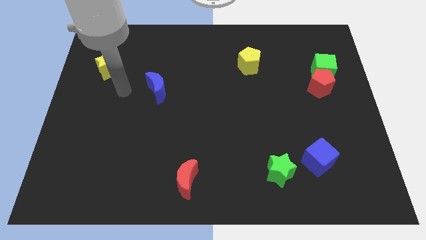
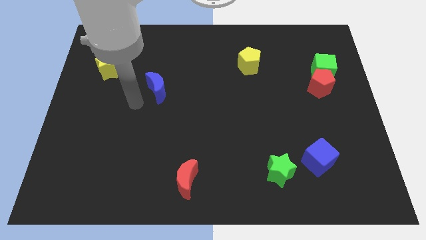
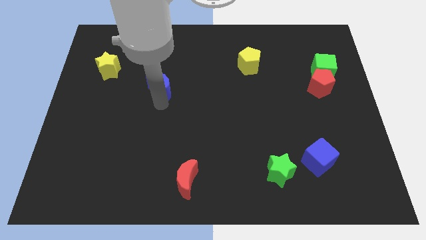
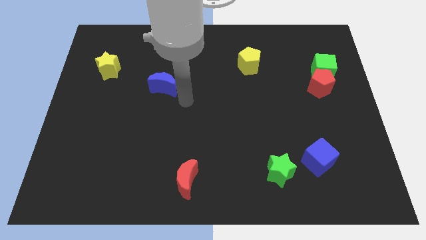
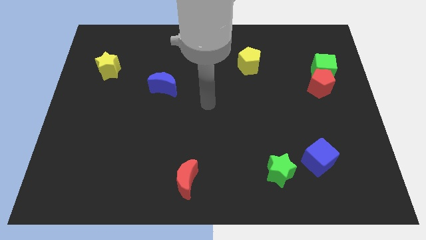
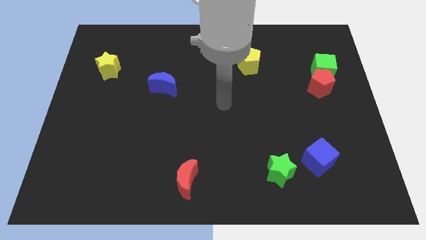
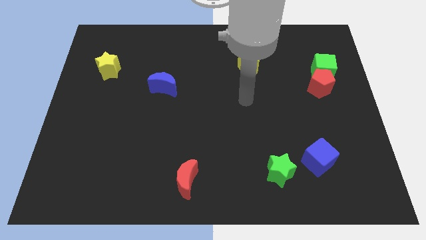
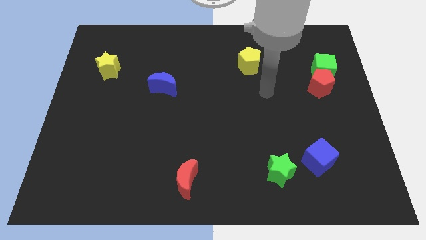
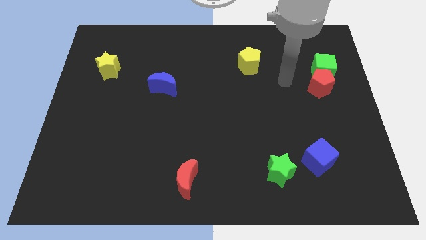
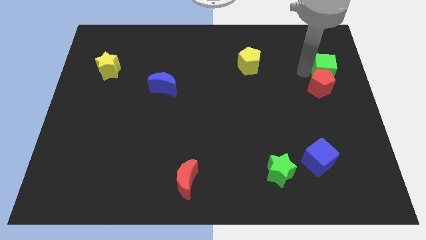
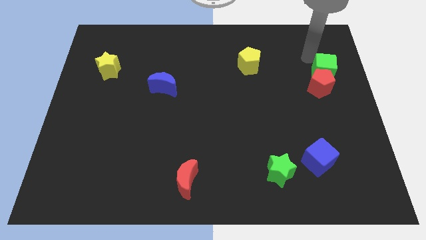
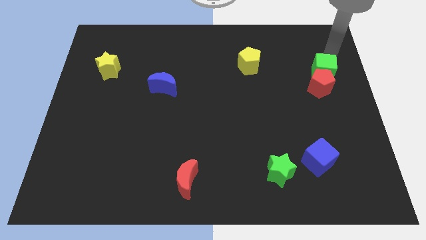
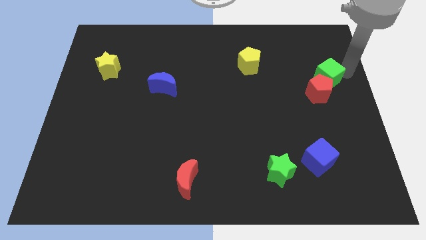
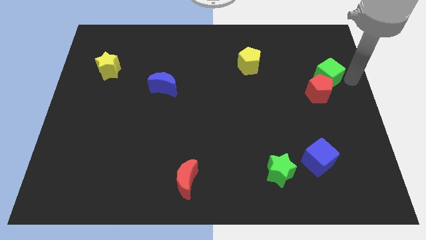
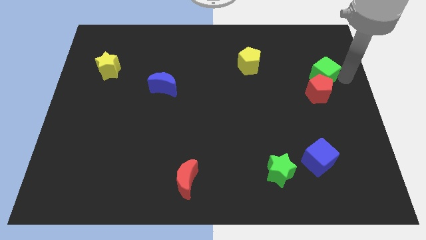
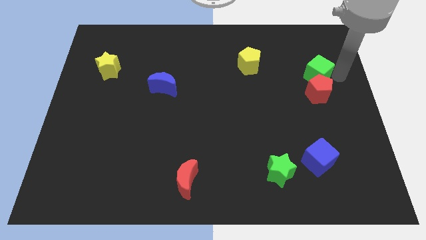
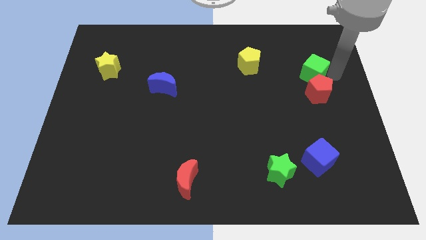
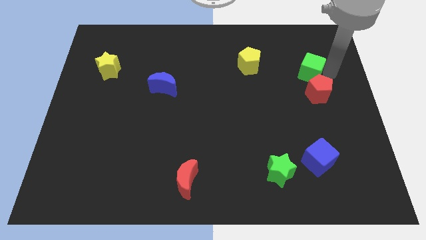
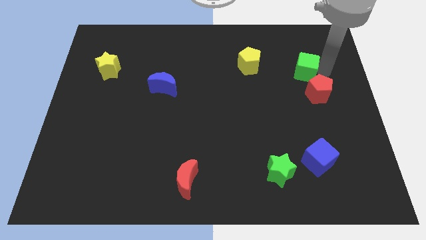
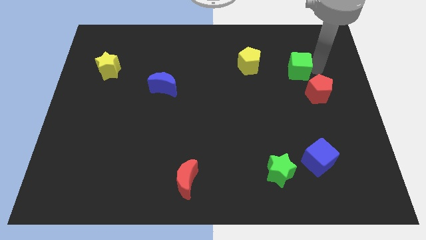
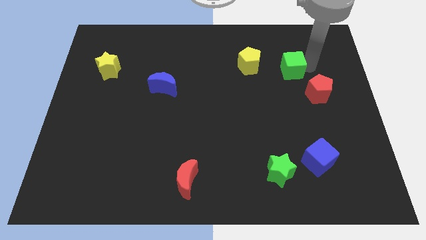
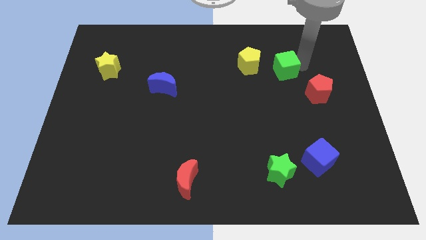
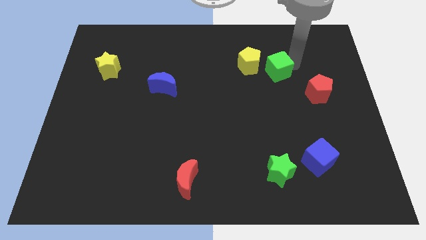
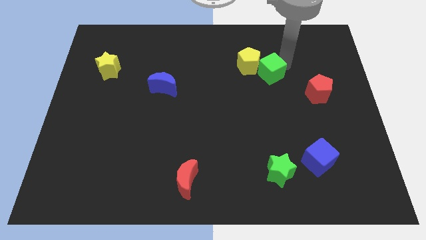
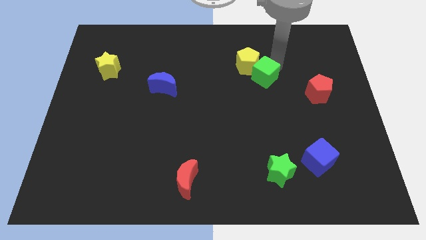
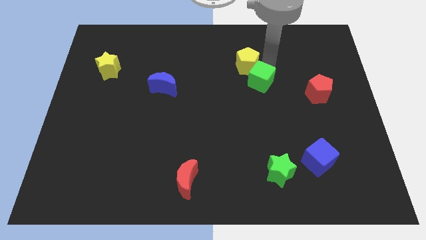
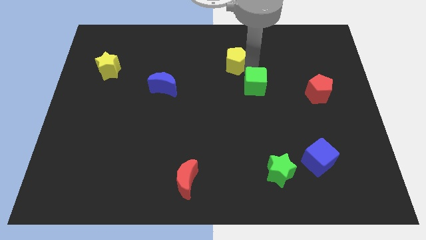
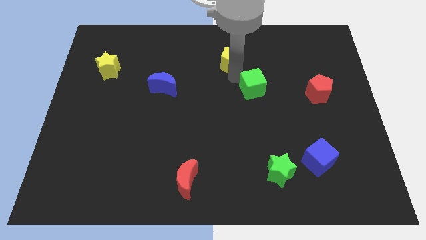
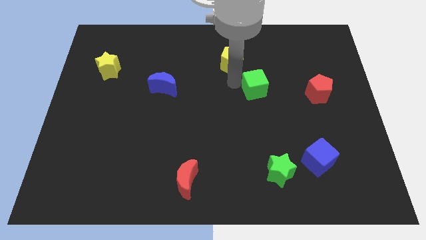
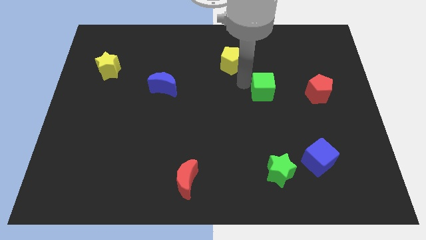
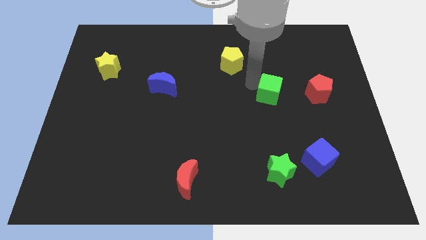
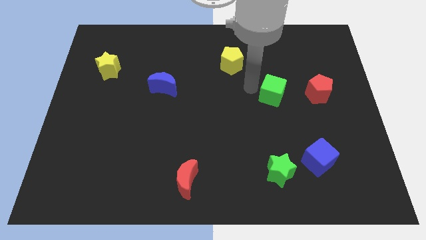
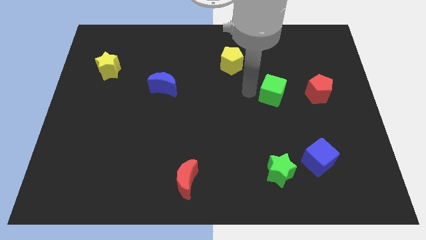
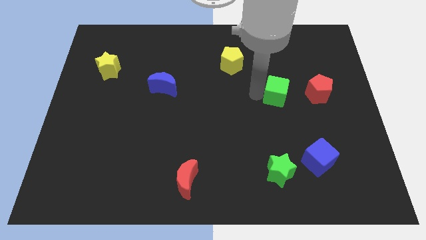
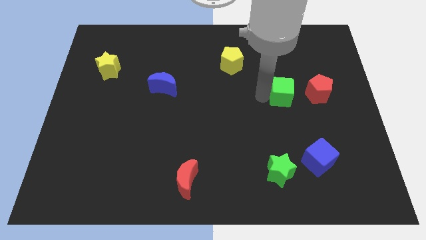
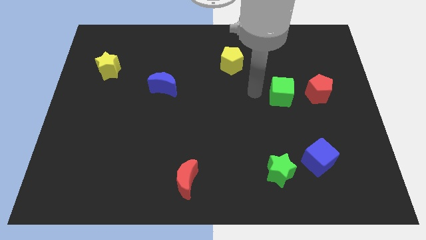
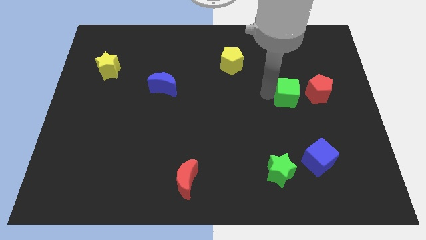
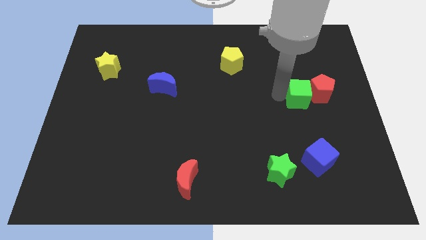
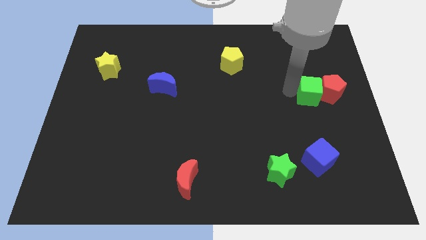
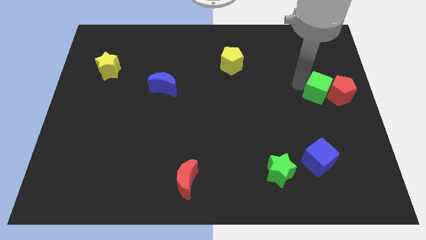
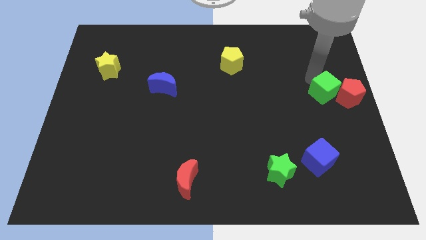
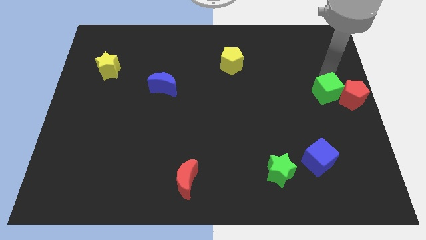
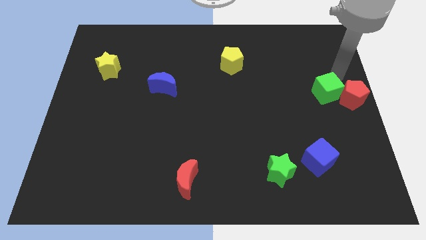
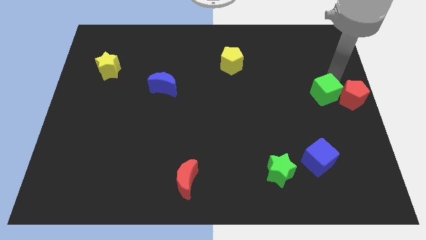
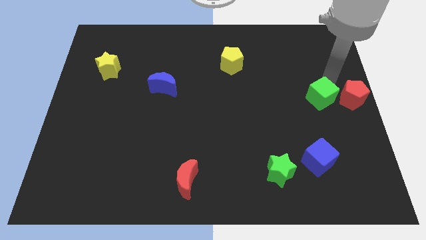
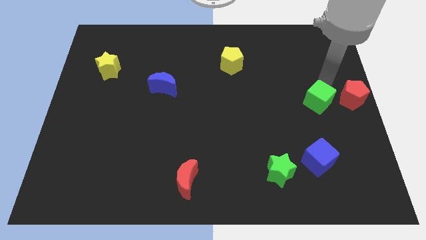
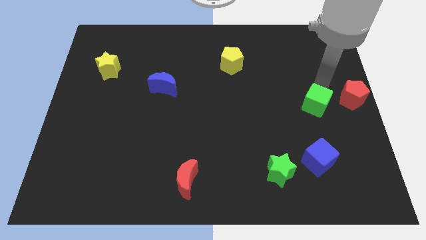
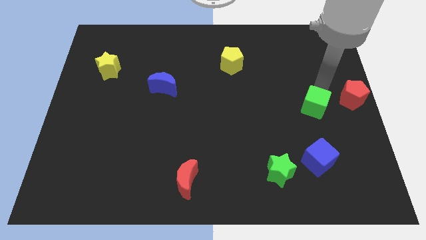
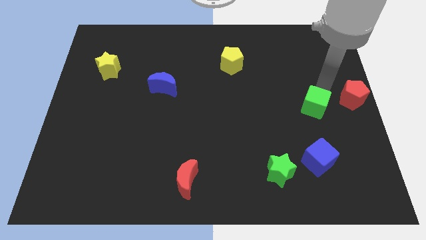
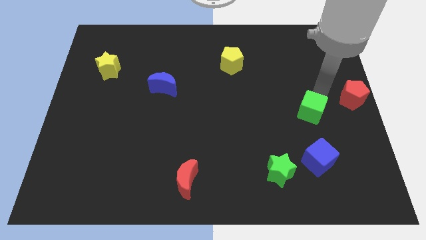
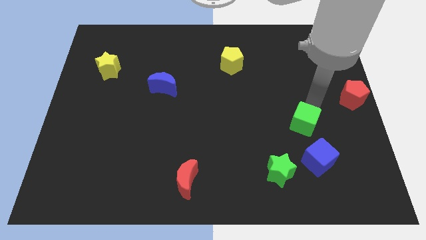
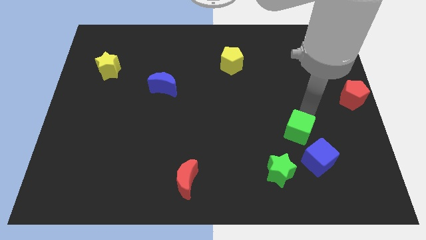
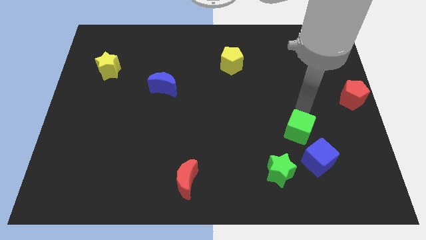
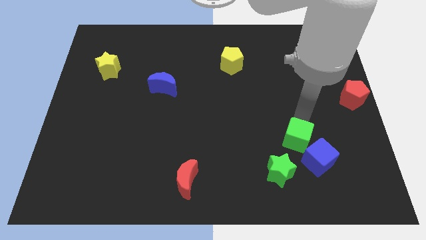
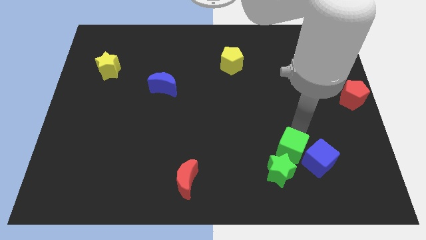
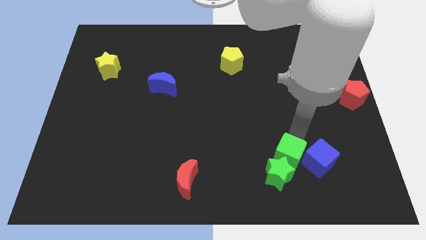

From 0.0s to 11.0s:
move the green cube to the green star

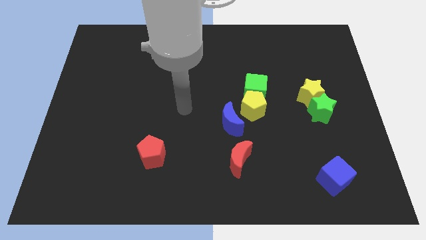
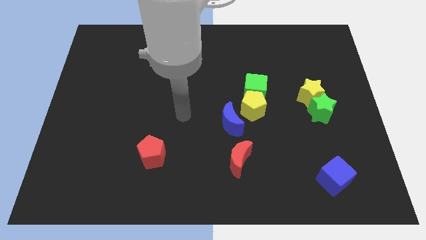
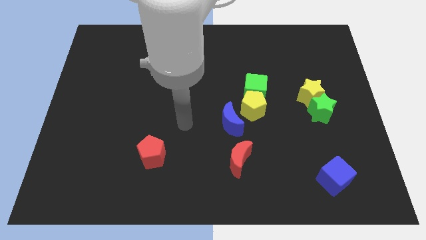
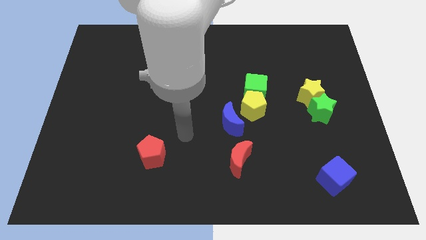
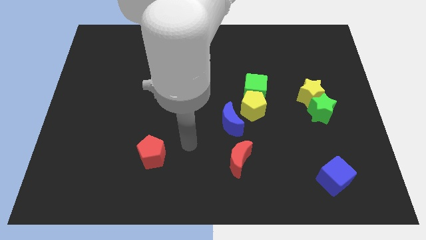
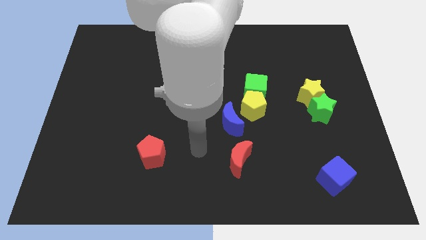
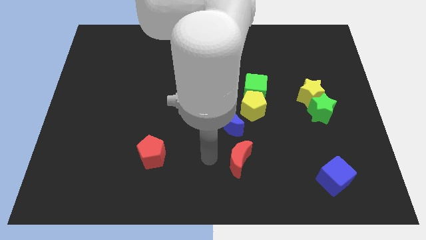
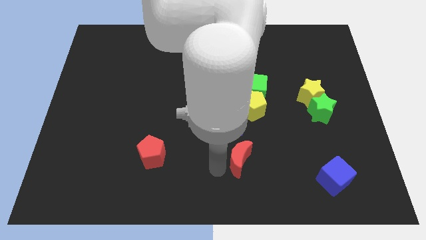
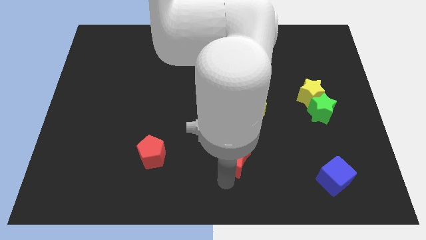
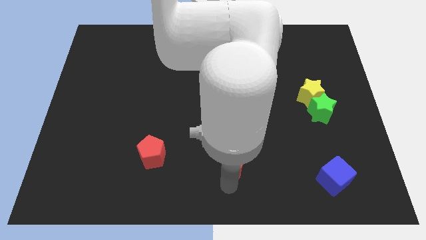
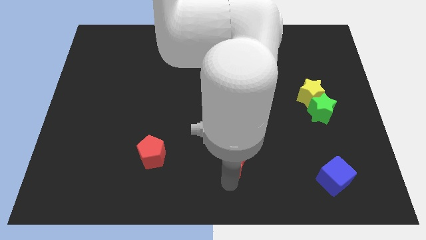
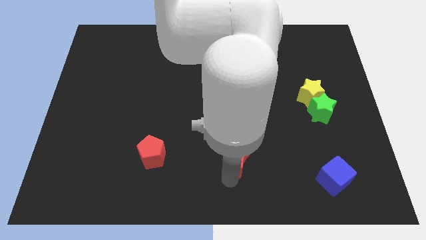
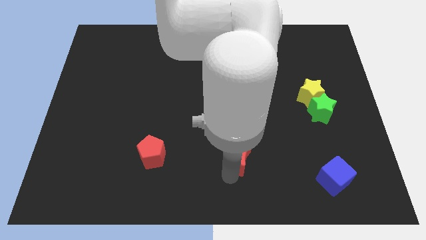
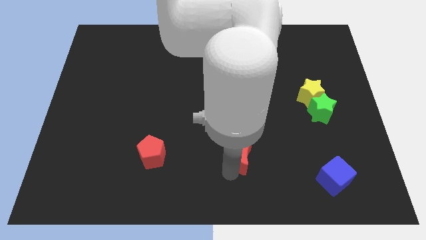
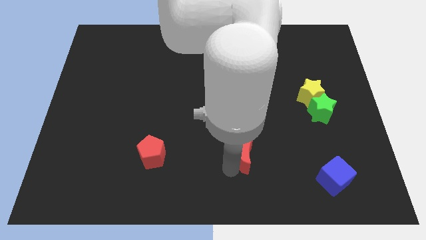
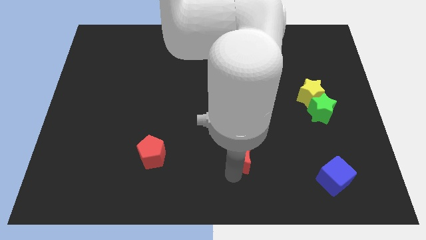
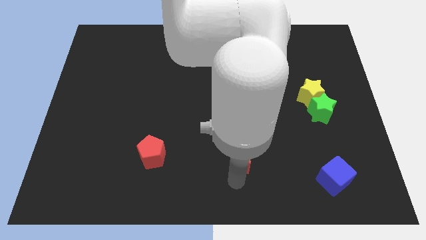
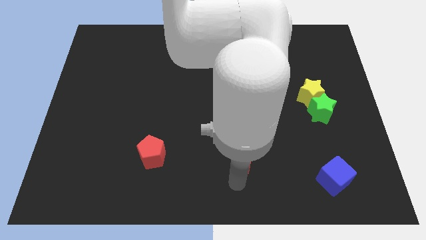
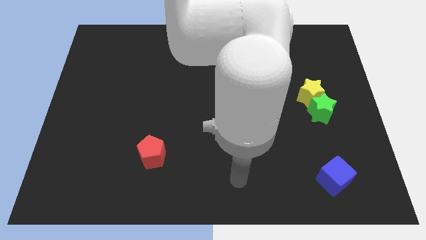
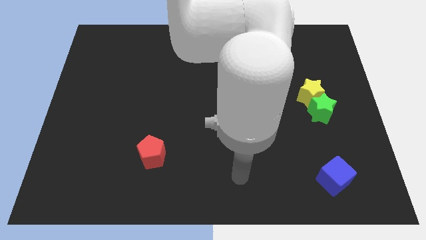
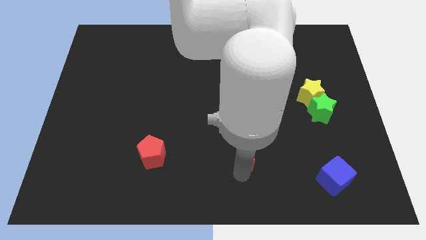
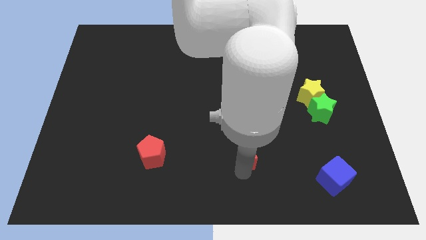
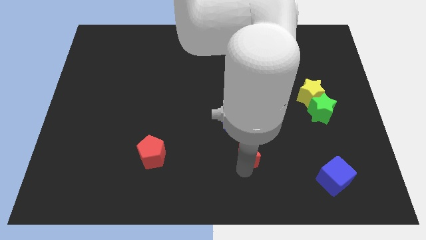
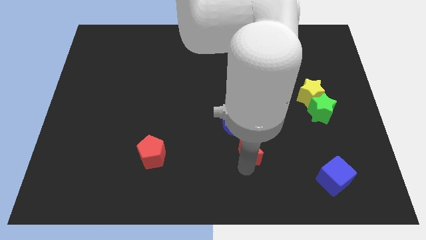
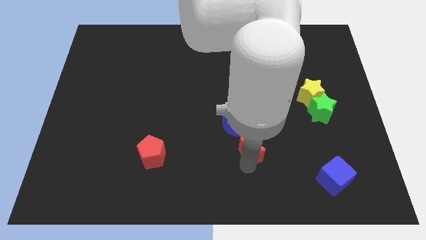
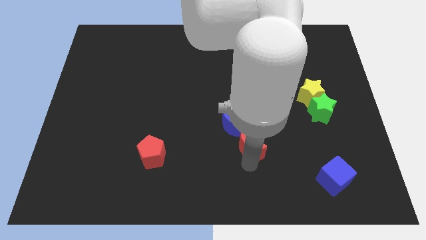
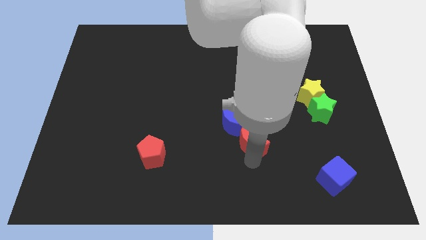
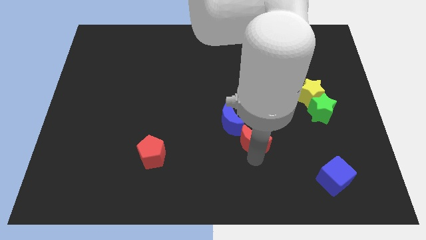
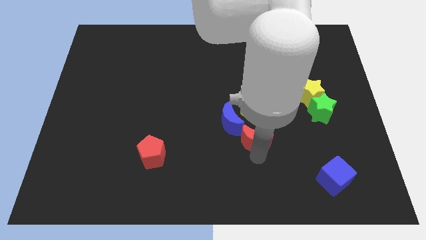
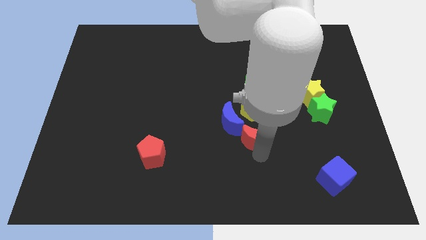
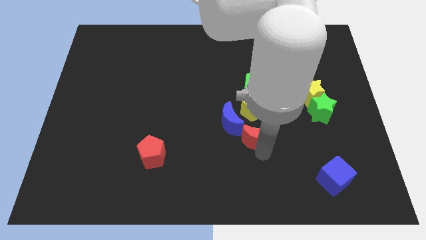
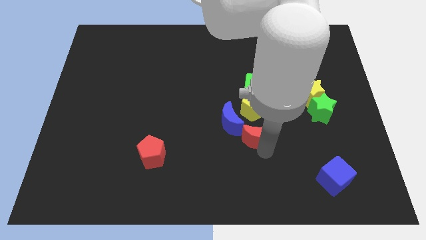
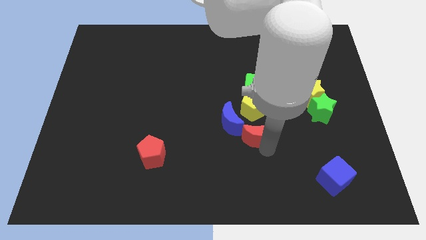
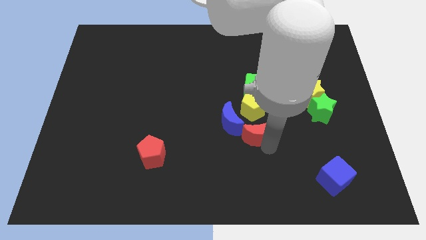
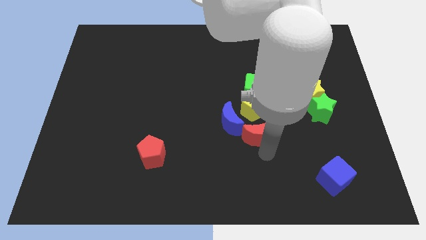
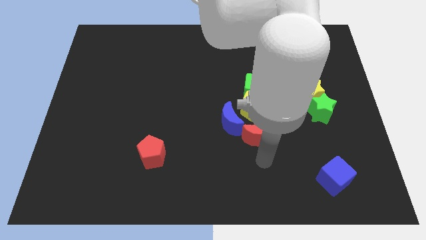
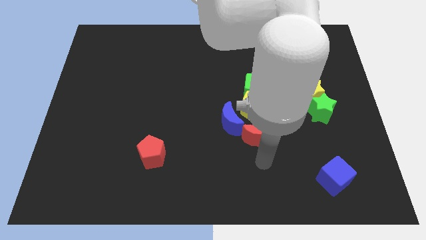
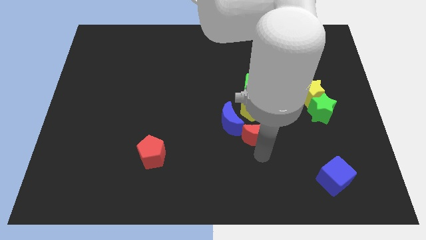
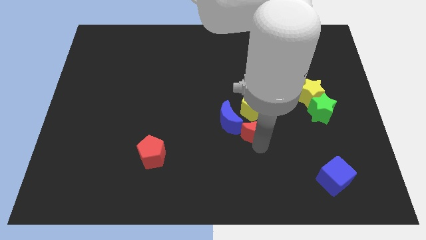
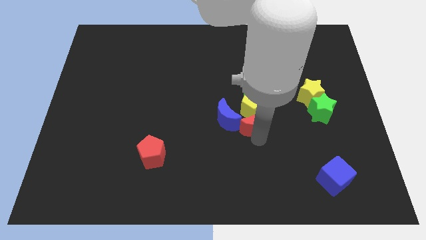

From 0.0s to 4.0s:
put the red moon next to the yellow pentagon
